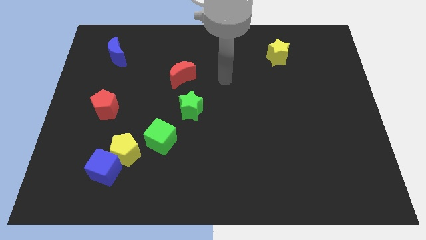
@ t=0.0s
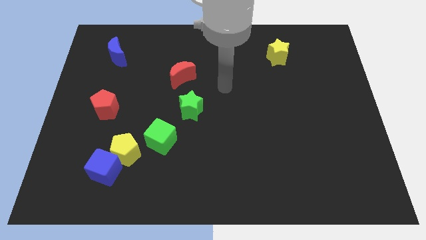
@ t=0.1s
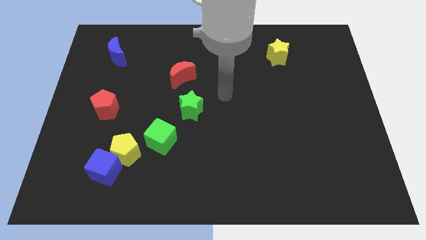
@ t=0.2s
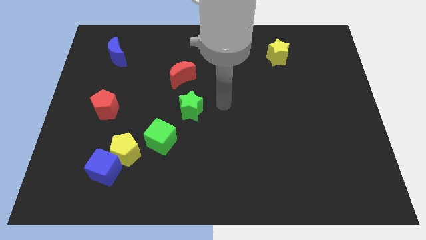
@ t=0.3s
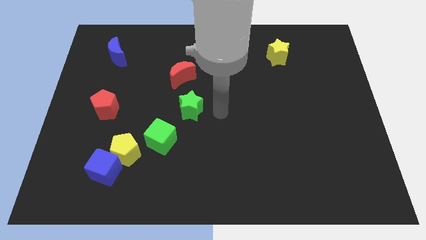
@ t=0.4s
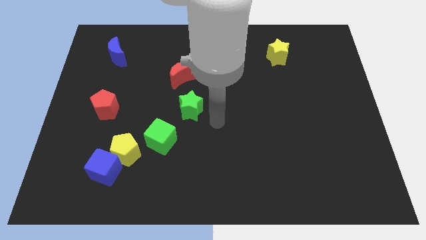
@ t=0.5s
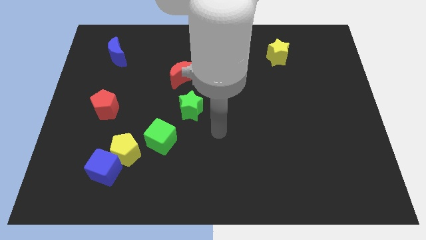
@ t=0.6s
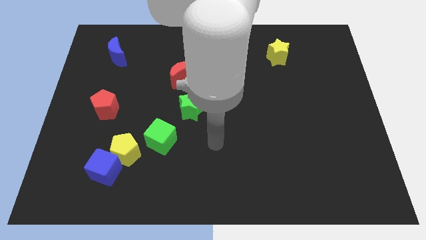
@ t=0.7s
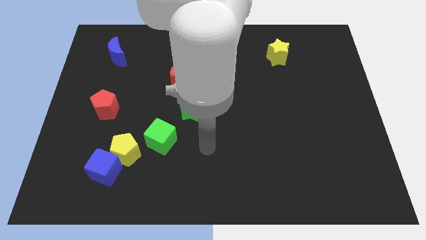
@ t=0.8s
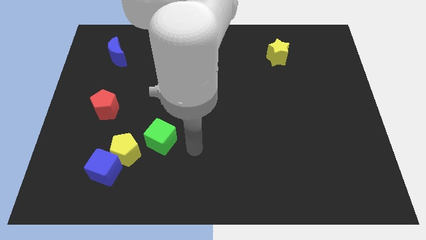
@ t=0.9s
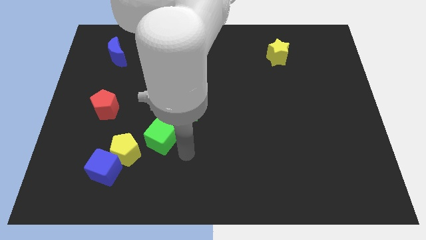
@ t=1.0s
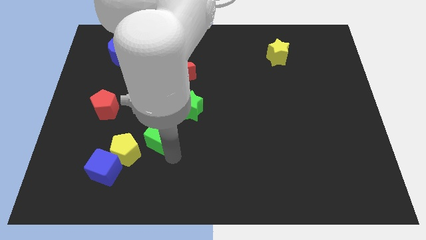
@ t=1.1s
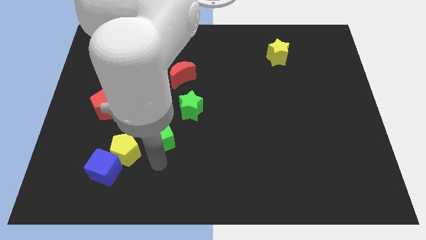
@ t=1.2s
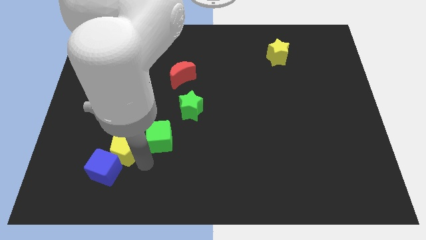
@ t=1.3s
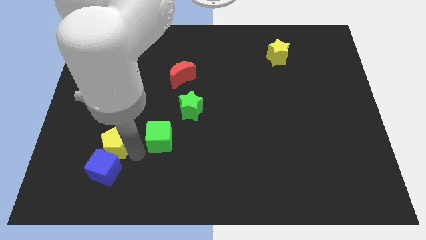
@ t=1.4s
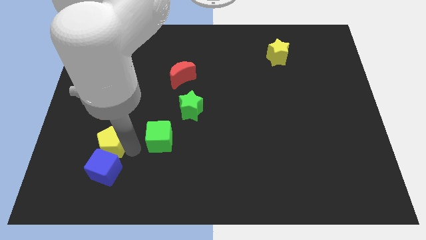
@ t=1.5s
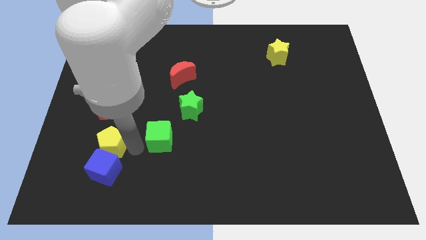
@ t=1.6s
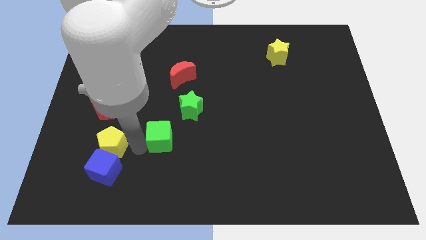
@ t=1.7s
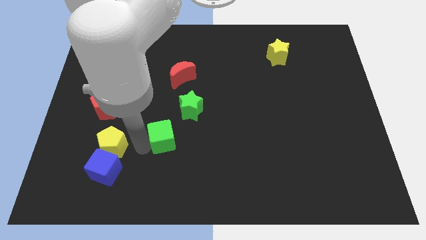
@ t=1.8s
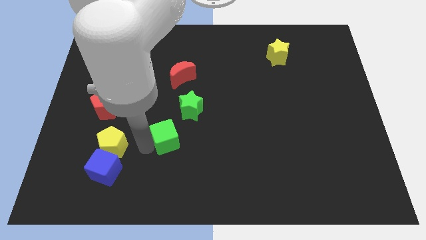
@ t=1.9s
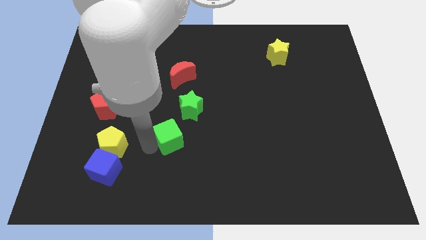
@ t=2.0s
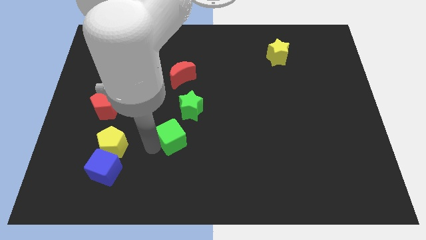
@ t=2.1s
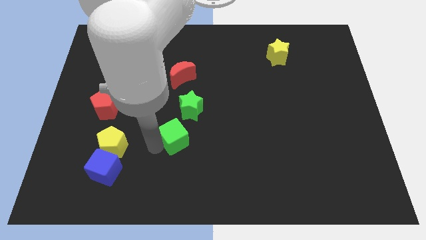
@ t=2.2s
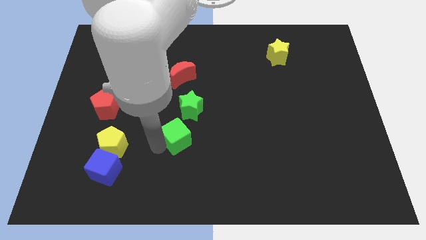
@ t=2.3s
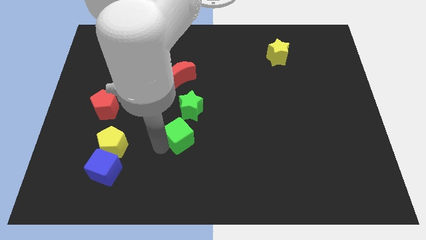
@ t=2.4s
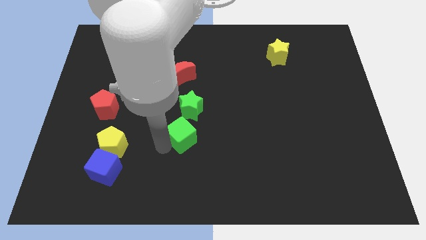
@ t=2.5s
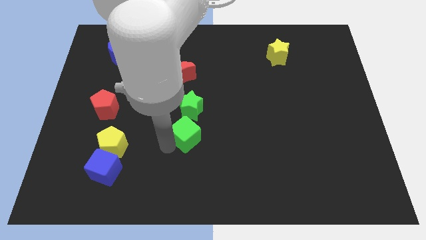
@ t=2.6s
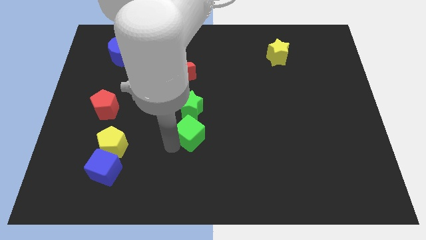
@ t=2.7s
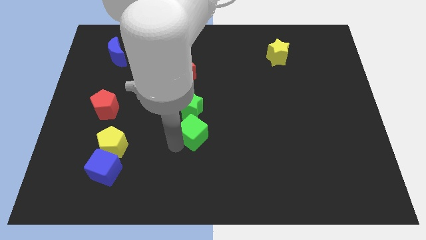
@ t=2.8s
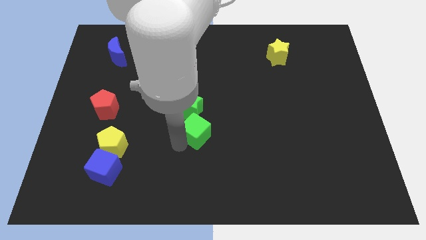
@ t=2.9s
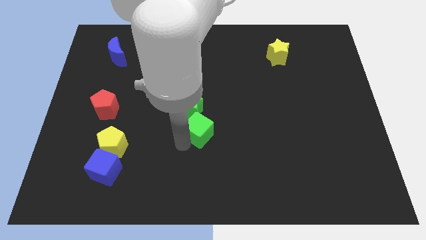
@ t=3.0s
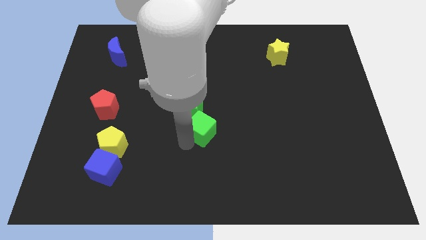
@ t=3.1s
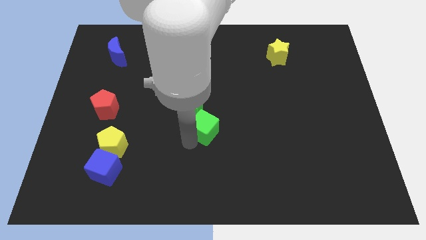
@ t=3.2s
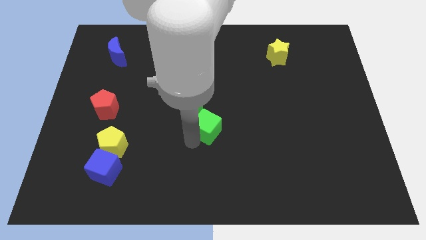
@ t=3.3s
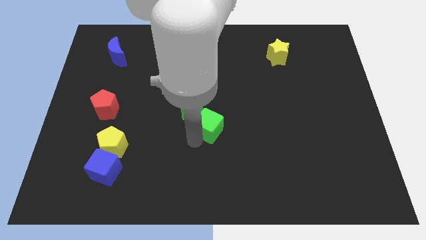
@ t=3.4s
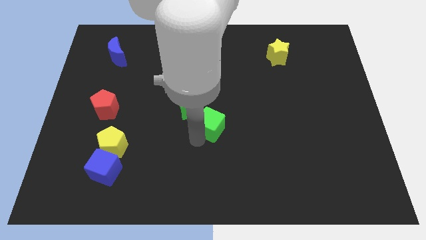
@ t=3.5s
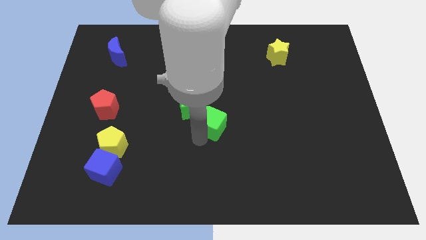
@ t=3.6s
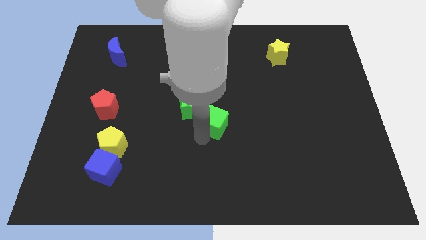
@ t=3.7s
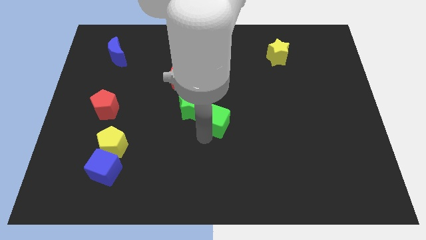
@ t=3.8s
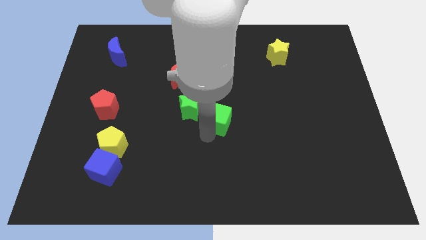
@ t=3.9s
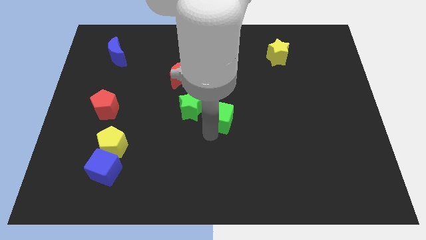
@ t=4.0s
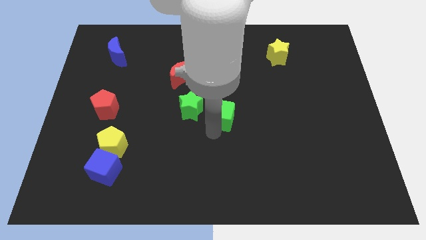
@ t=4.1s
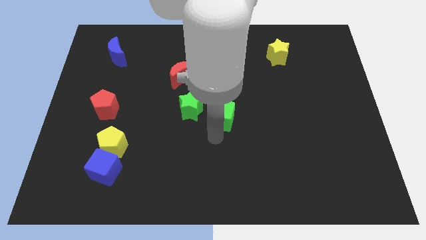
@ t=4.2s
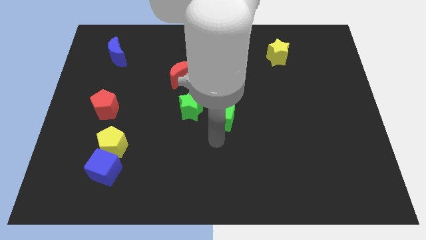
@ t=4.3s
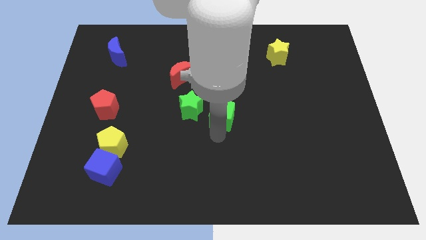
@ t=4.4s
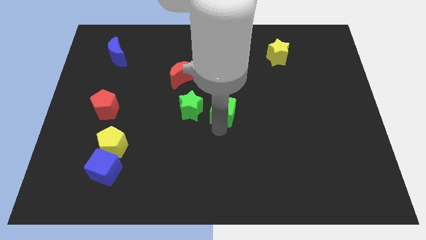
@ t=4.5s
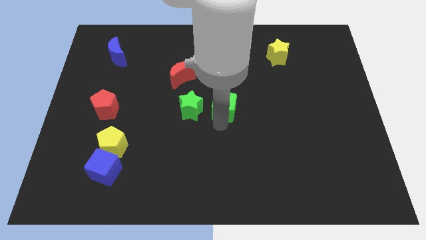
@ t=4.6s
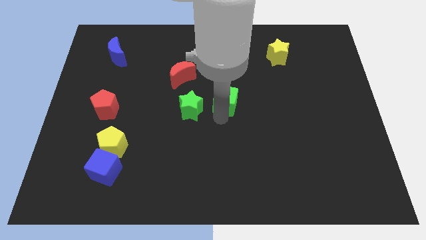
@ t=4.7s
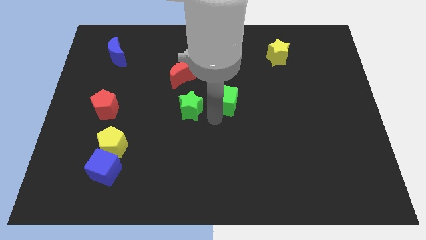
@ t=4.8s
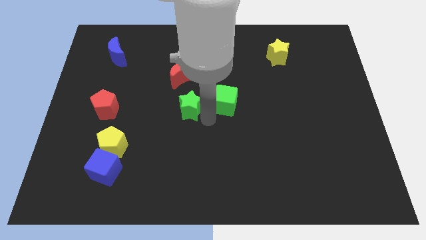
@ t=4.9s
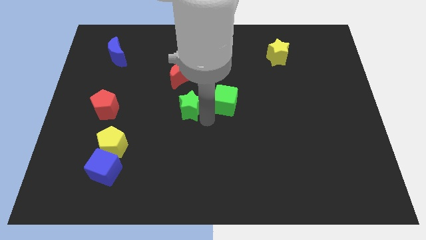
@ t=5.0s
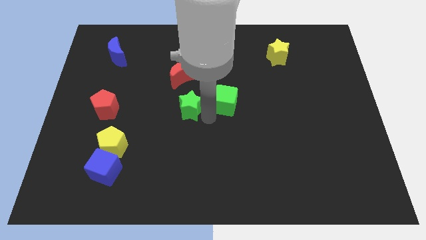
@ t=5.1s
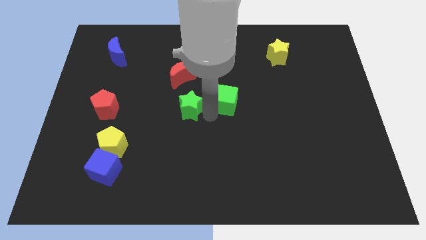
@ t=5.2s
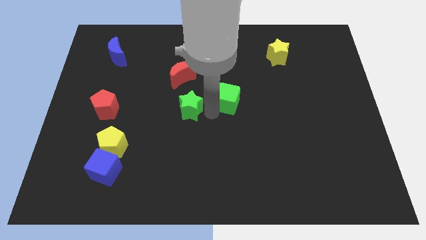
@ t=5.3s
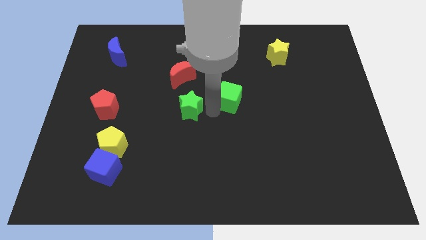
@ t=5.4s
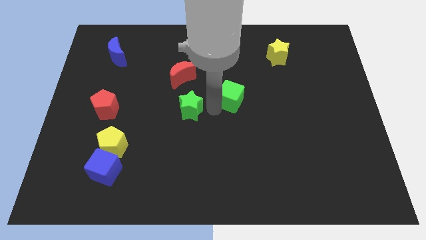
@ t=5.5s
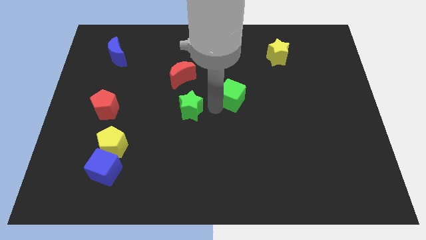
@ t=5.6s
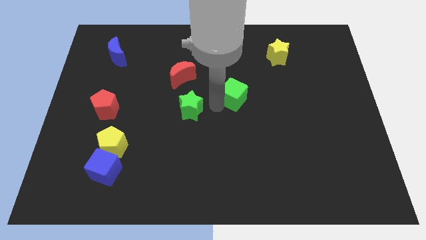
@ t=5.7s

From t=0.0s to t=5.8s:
slide the green cube up and to the right

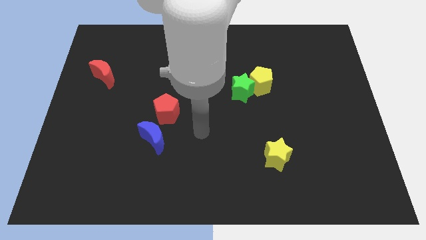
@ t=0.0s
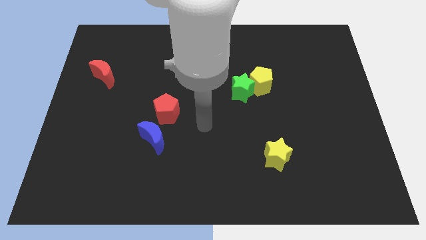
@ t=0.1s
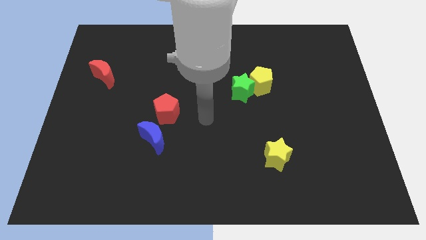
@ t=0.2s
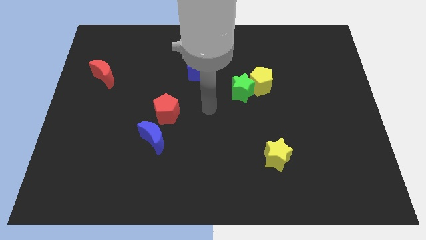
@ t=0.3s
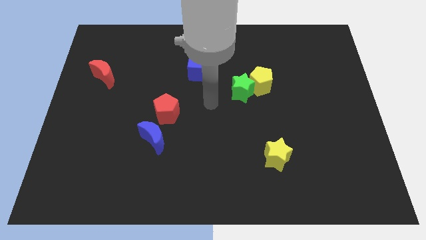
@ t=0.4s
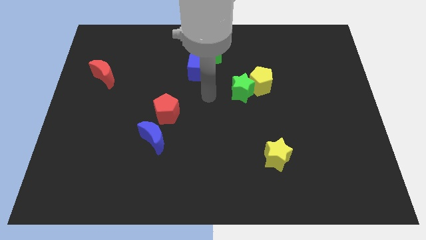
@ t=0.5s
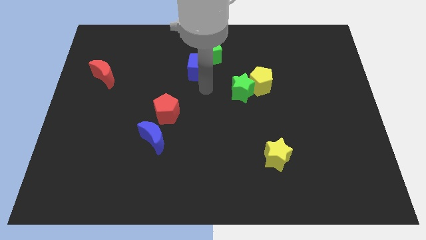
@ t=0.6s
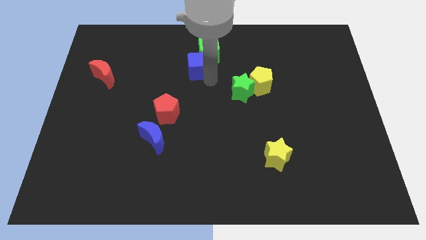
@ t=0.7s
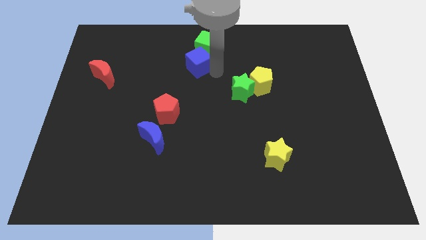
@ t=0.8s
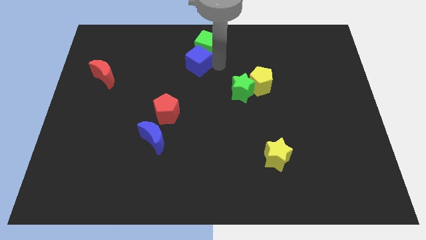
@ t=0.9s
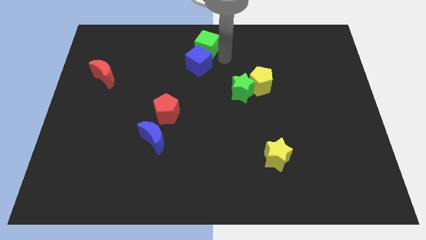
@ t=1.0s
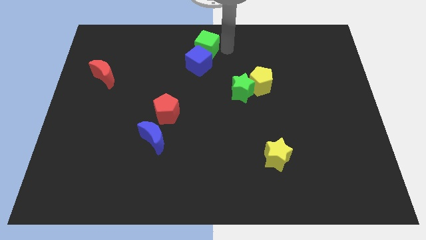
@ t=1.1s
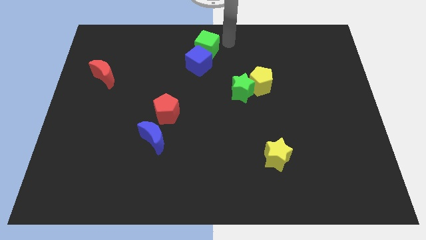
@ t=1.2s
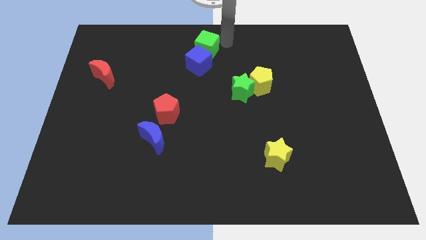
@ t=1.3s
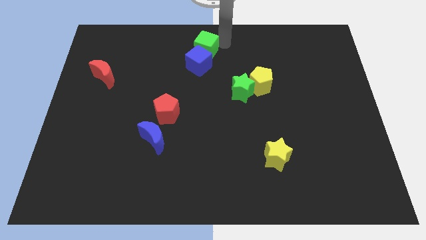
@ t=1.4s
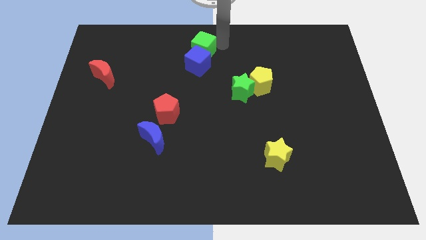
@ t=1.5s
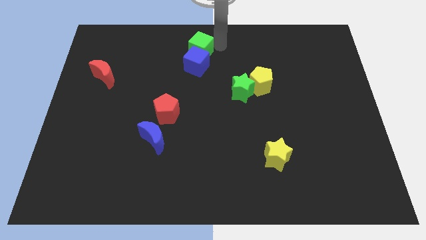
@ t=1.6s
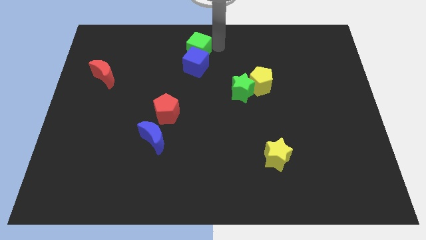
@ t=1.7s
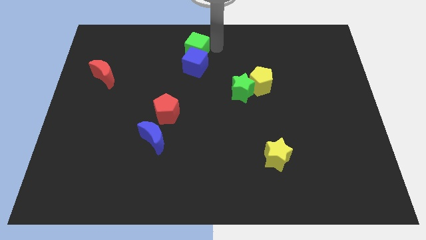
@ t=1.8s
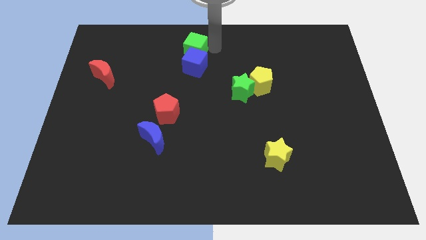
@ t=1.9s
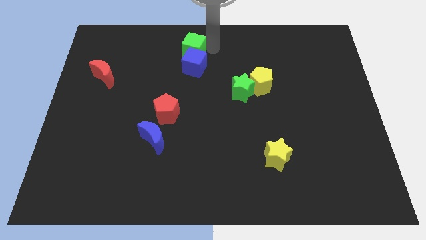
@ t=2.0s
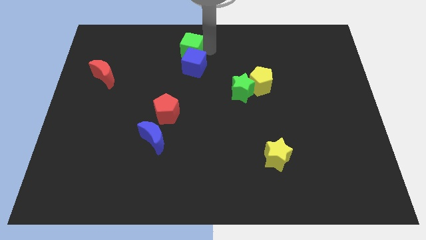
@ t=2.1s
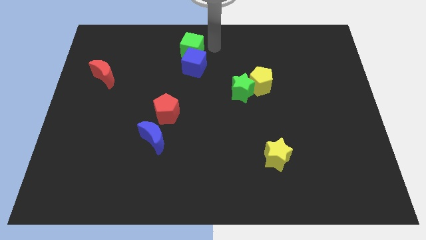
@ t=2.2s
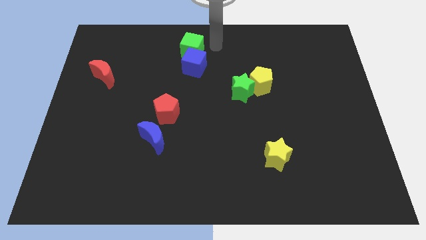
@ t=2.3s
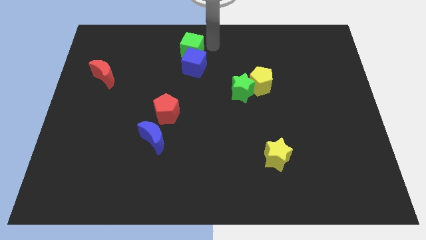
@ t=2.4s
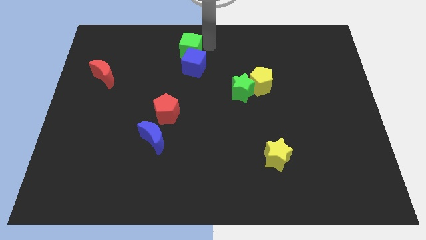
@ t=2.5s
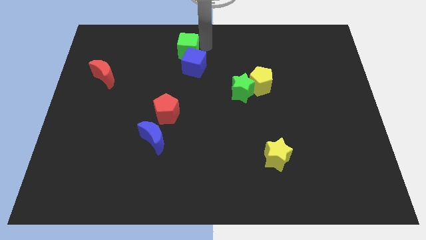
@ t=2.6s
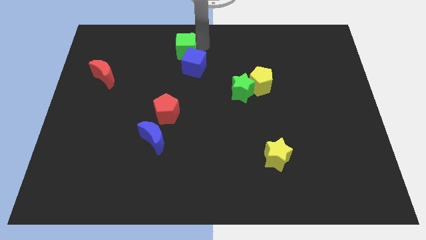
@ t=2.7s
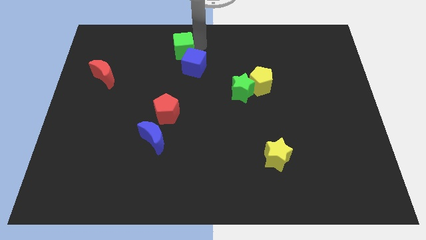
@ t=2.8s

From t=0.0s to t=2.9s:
push the green cube left somewhat
